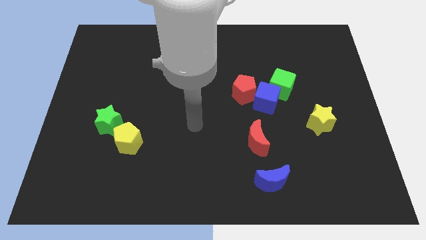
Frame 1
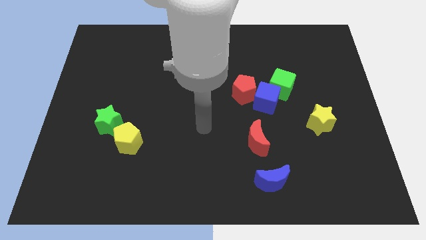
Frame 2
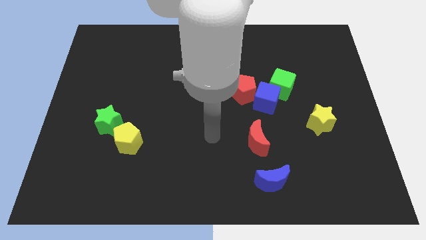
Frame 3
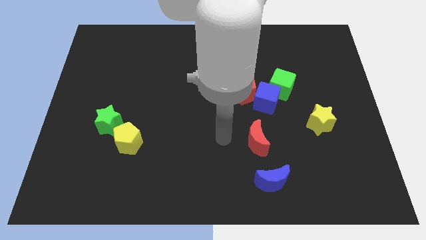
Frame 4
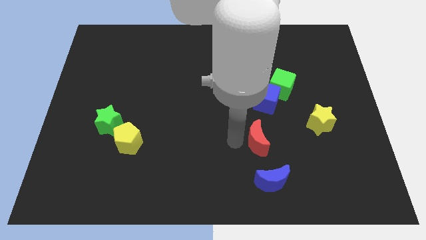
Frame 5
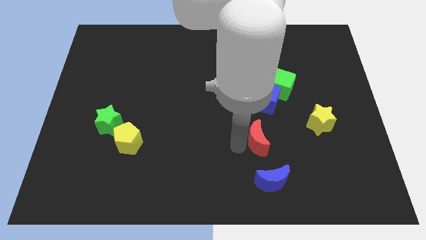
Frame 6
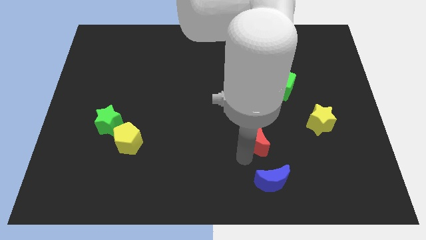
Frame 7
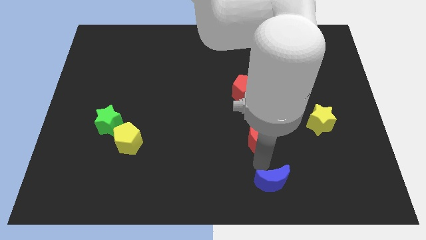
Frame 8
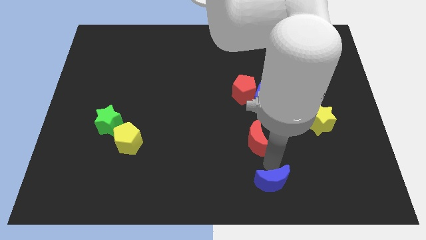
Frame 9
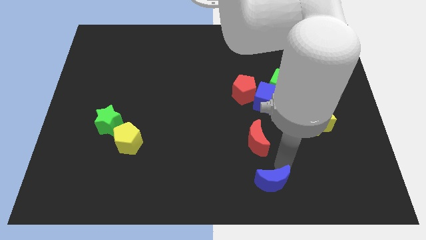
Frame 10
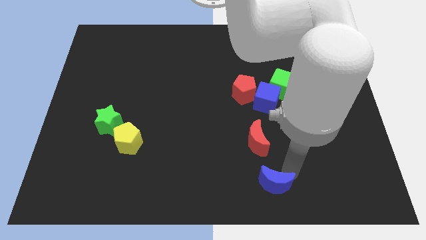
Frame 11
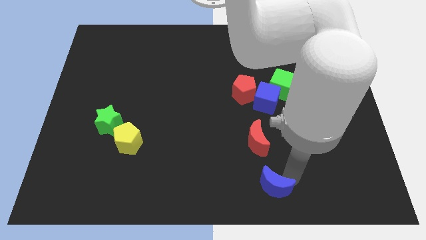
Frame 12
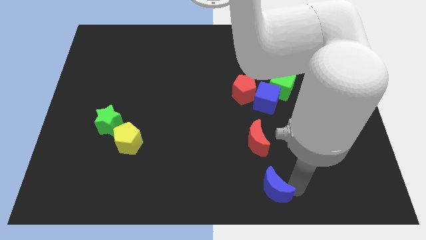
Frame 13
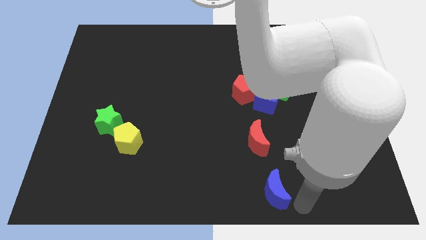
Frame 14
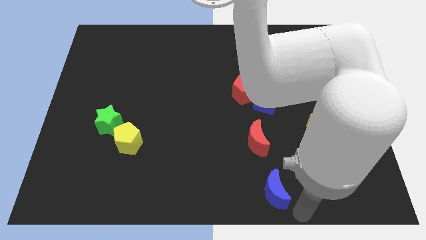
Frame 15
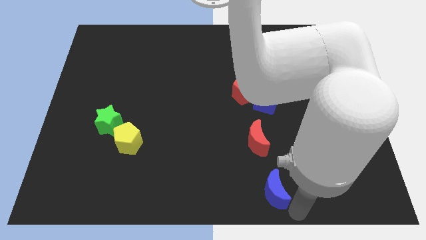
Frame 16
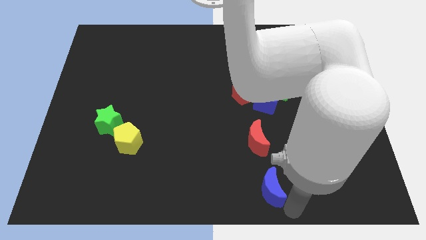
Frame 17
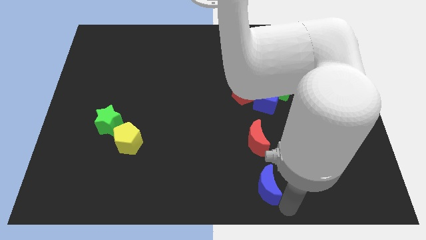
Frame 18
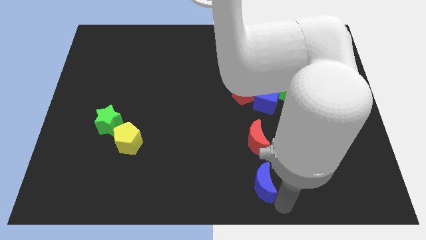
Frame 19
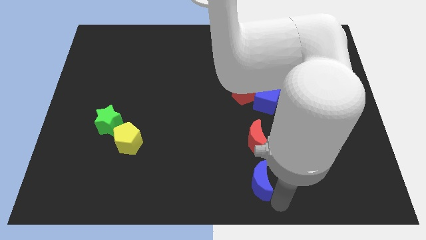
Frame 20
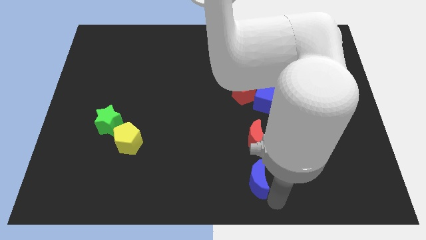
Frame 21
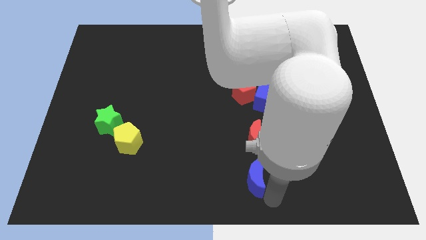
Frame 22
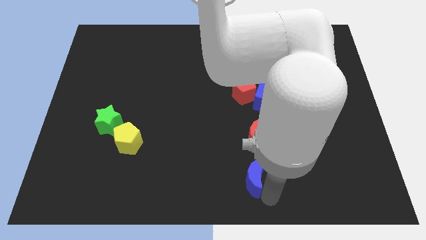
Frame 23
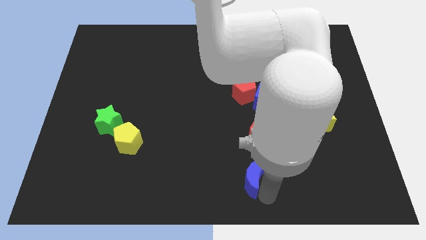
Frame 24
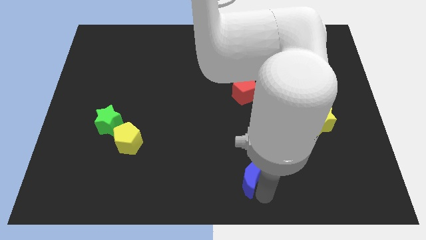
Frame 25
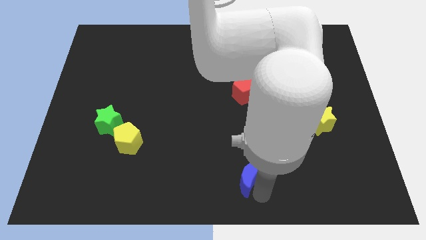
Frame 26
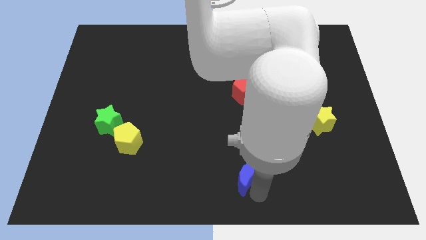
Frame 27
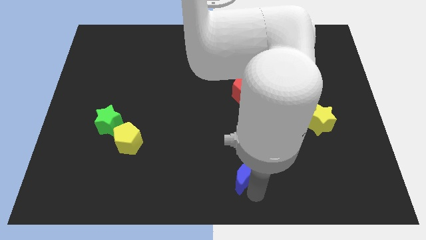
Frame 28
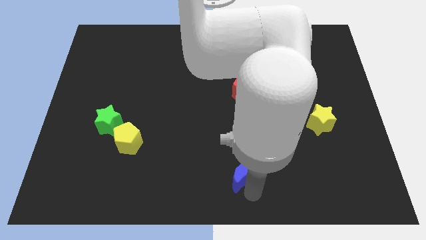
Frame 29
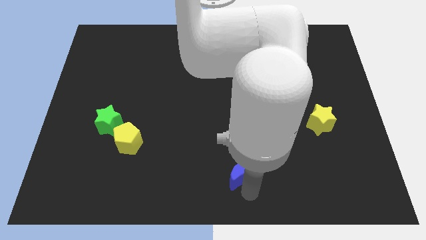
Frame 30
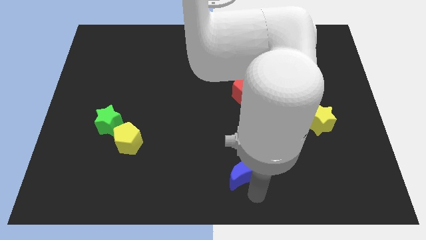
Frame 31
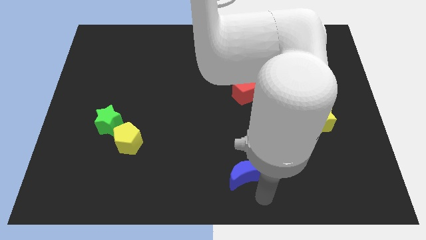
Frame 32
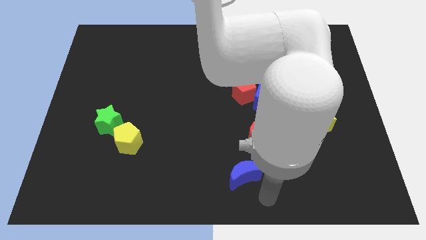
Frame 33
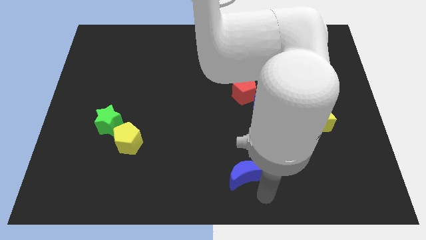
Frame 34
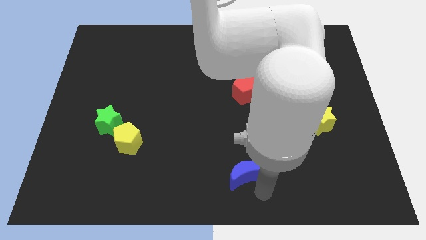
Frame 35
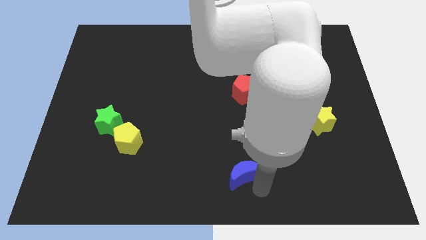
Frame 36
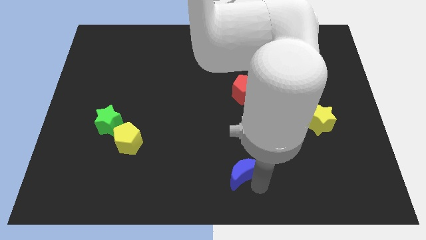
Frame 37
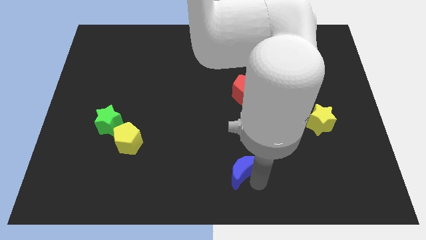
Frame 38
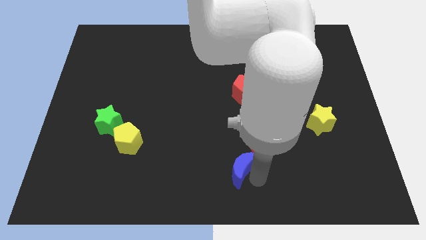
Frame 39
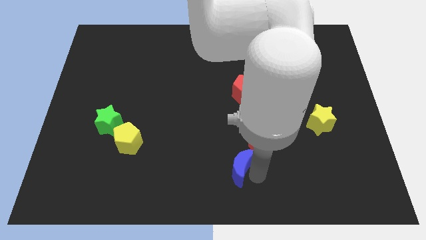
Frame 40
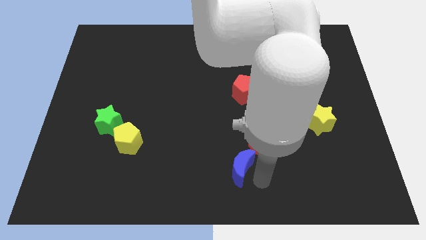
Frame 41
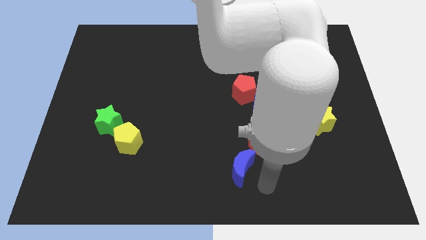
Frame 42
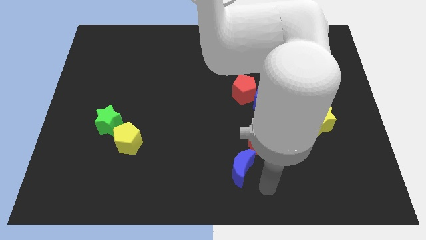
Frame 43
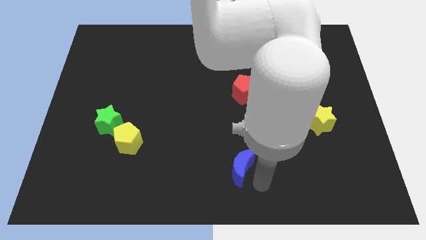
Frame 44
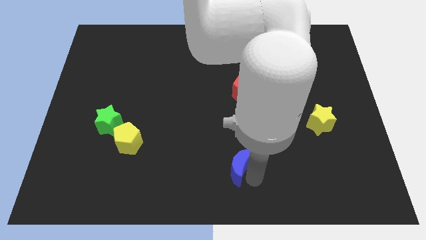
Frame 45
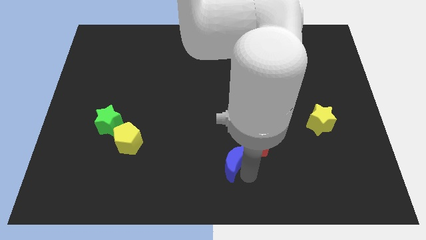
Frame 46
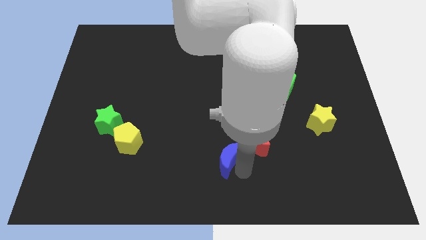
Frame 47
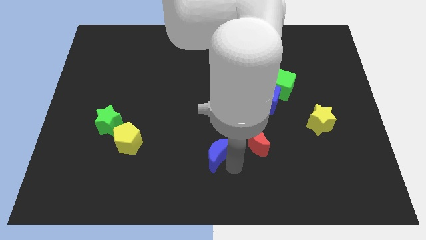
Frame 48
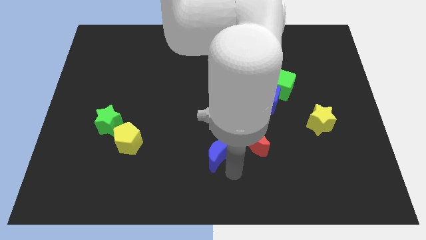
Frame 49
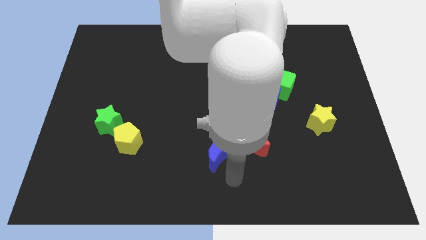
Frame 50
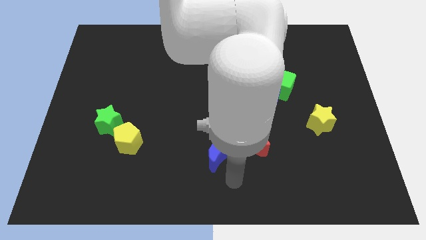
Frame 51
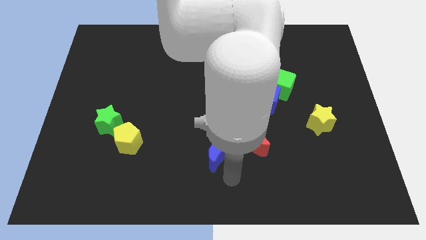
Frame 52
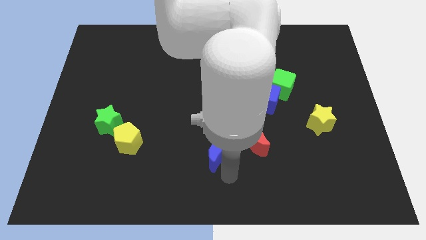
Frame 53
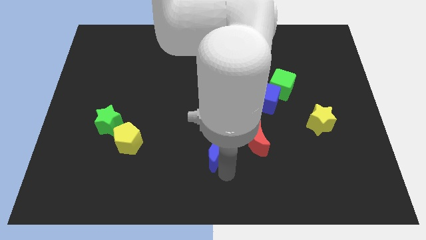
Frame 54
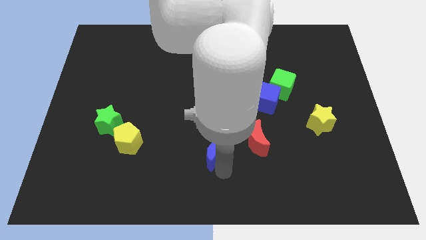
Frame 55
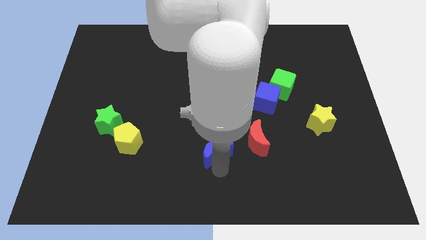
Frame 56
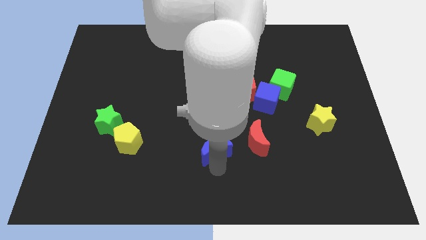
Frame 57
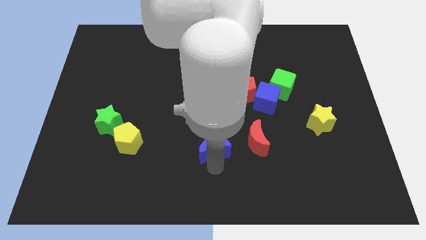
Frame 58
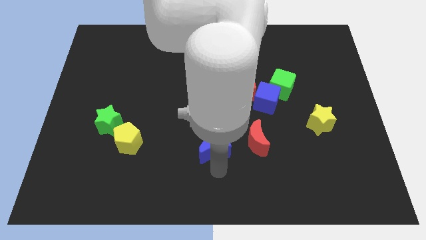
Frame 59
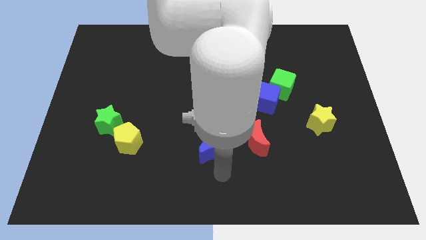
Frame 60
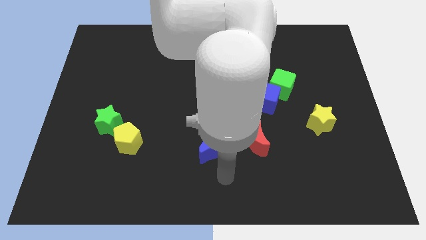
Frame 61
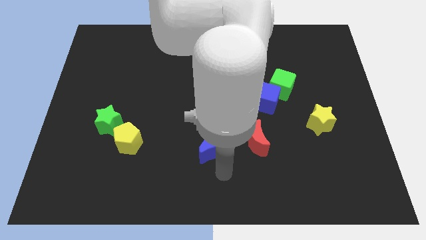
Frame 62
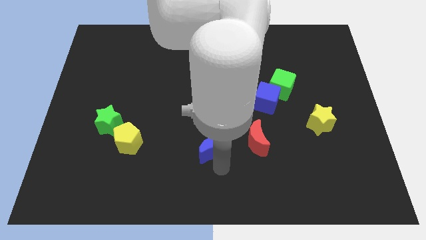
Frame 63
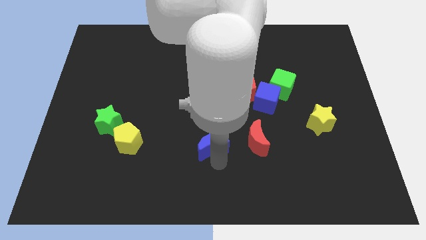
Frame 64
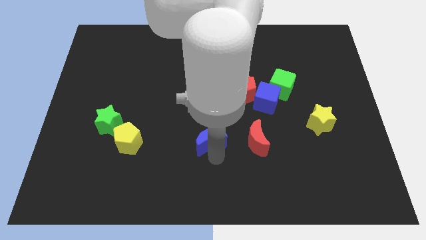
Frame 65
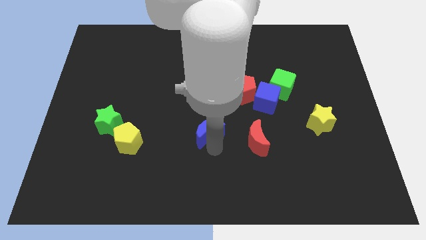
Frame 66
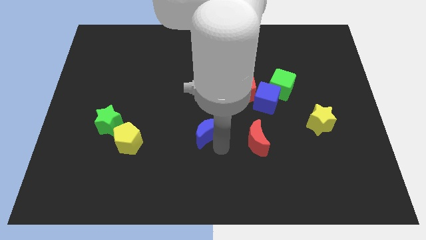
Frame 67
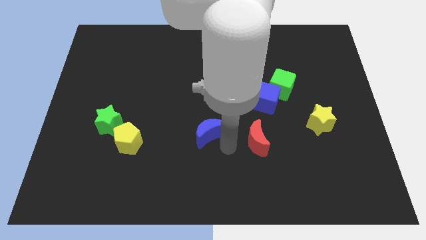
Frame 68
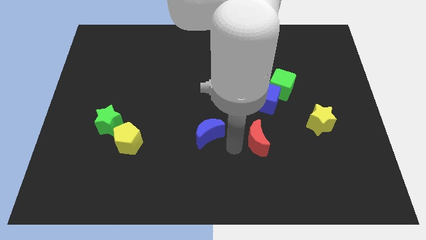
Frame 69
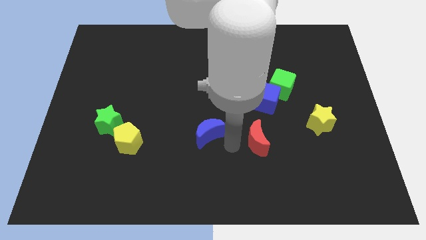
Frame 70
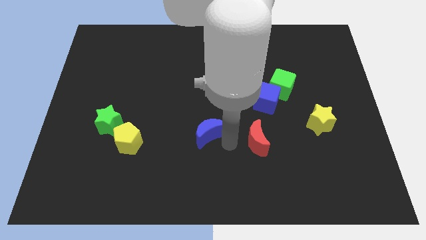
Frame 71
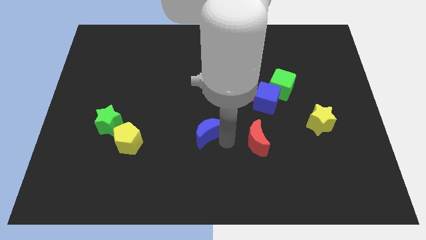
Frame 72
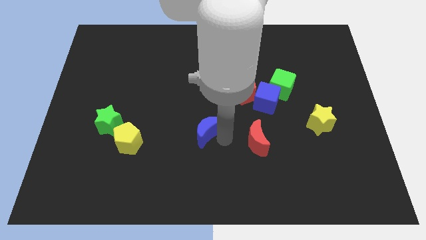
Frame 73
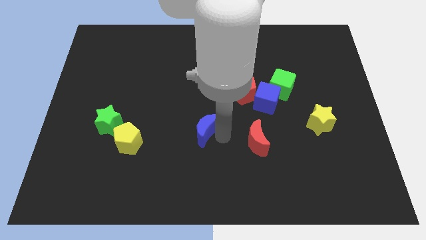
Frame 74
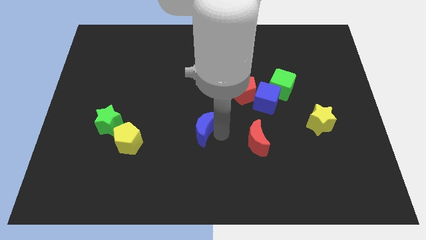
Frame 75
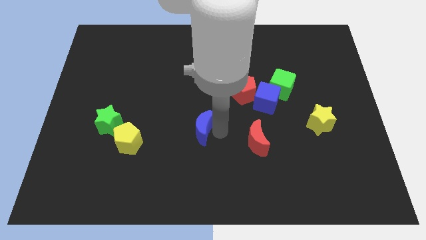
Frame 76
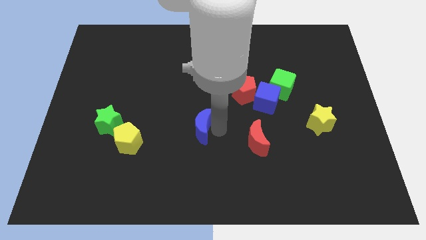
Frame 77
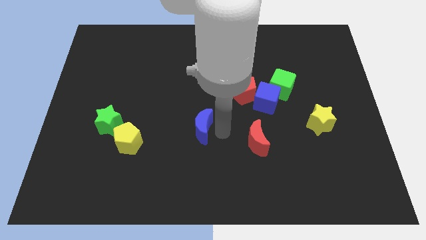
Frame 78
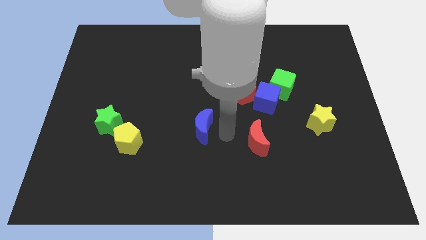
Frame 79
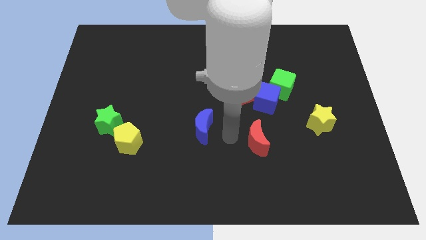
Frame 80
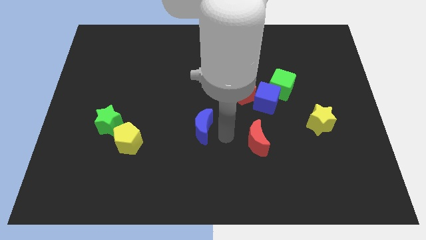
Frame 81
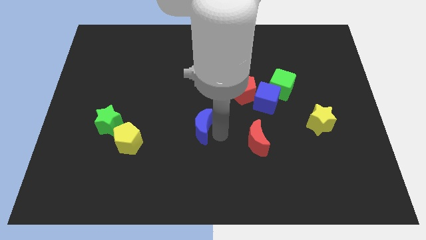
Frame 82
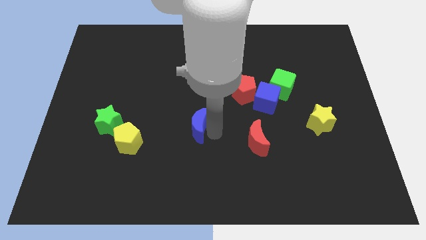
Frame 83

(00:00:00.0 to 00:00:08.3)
move the blue moon upwards and left diagonally
